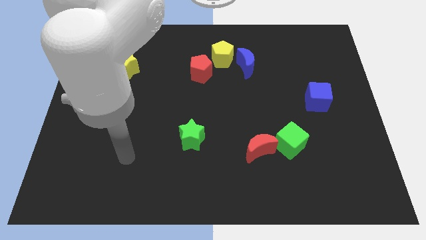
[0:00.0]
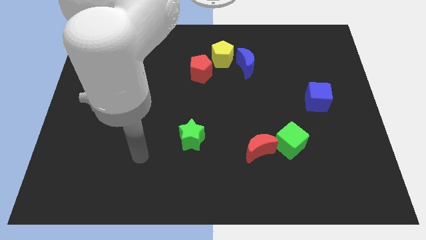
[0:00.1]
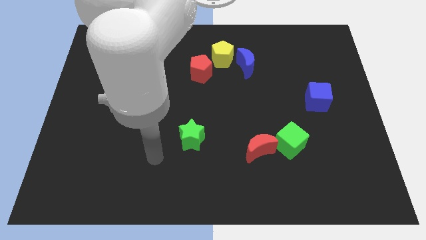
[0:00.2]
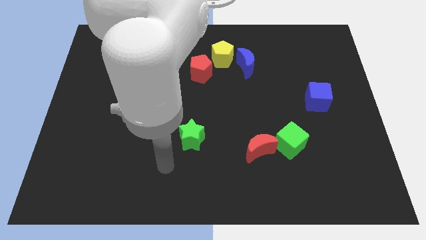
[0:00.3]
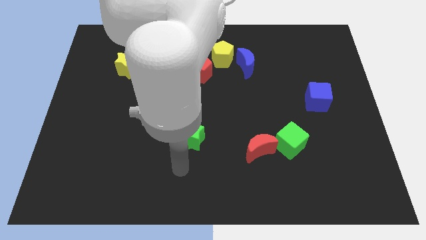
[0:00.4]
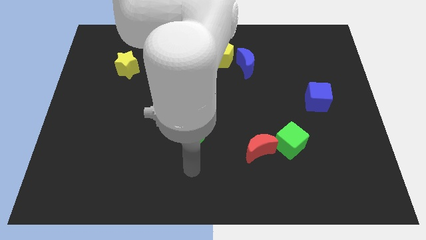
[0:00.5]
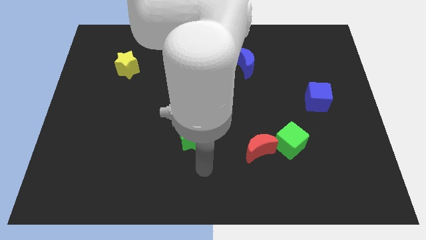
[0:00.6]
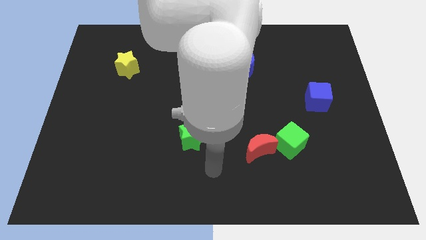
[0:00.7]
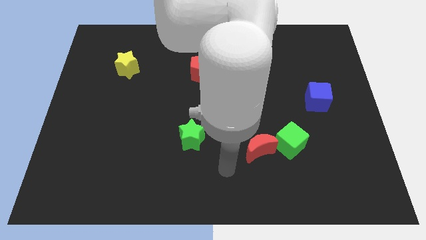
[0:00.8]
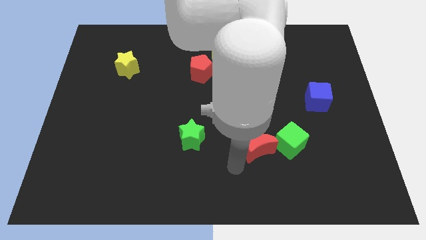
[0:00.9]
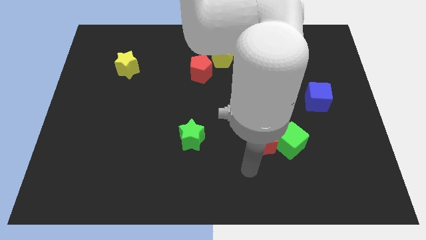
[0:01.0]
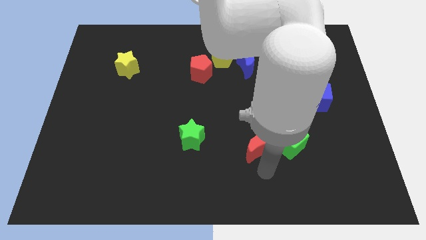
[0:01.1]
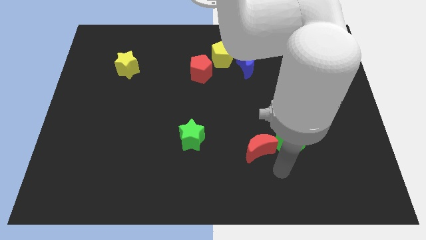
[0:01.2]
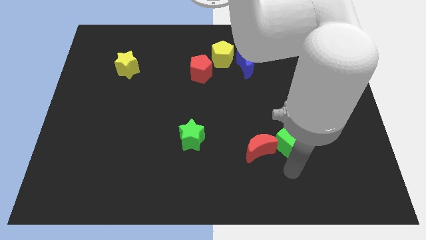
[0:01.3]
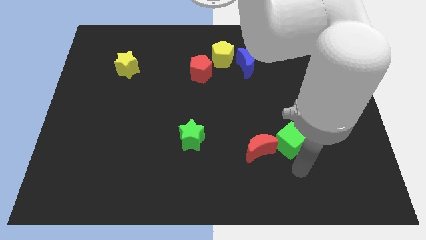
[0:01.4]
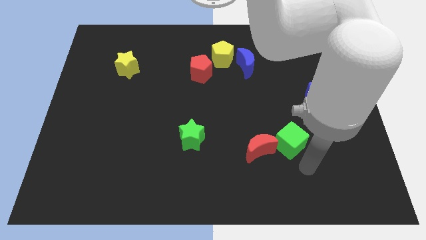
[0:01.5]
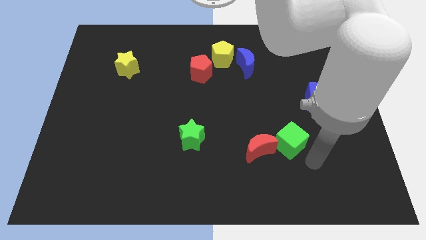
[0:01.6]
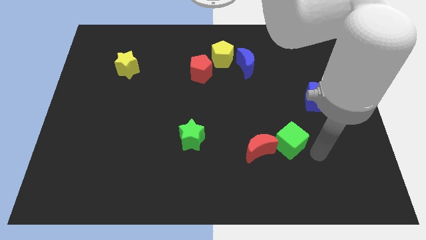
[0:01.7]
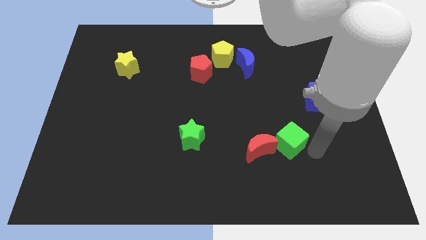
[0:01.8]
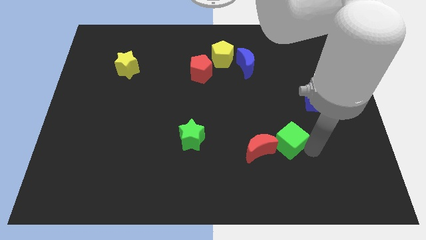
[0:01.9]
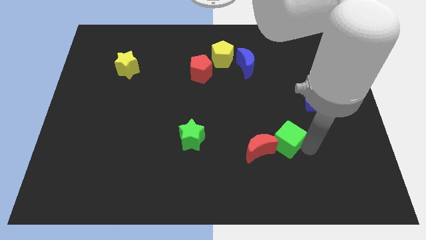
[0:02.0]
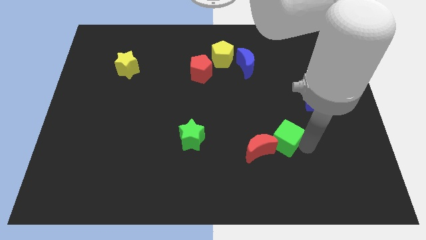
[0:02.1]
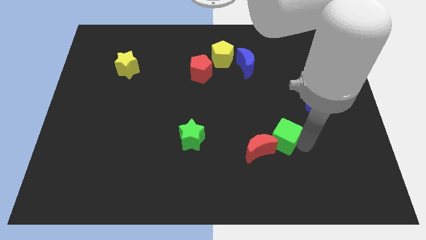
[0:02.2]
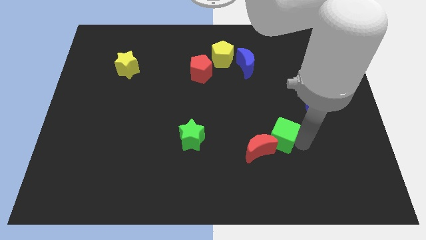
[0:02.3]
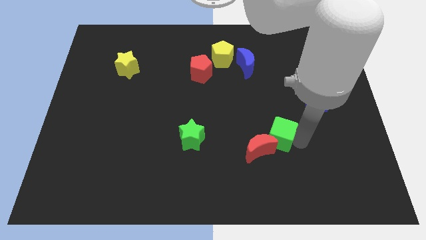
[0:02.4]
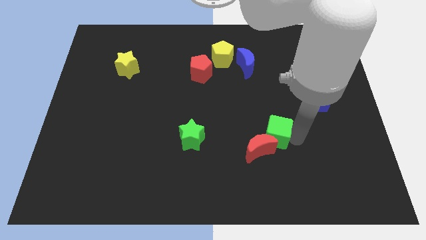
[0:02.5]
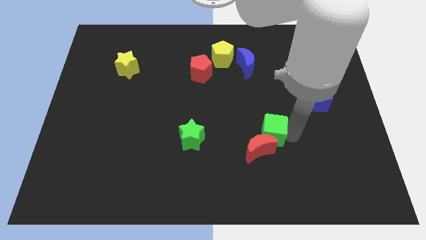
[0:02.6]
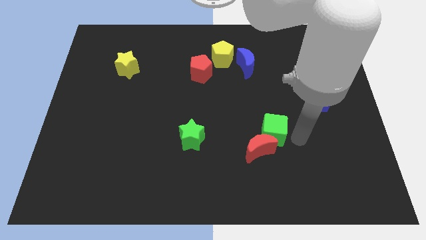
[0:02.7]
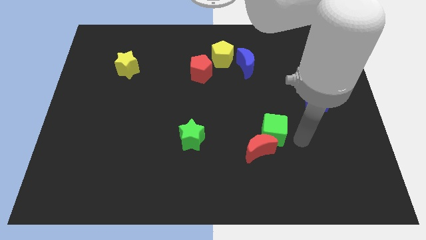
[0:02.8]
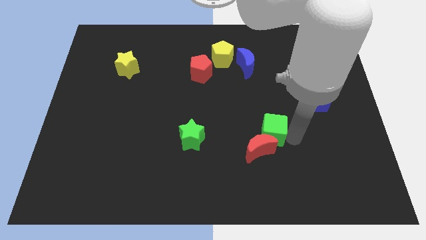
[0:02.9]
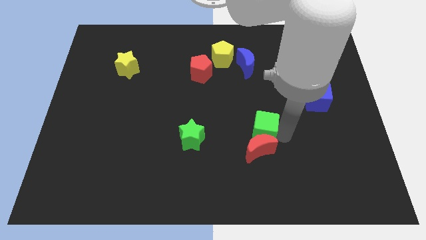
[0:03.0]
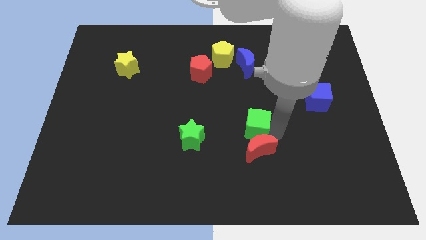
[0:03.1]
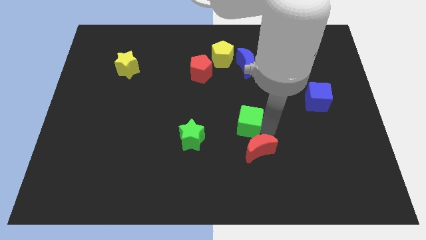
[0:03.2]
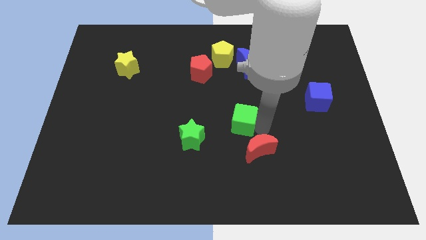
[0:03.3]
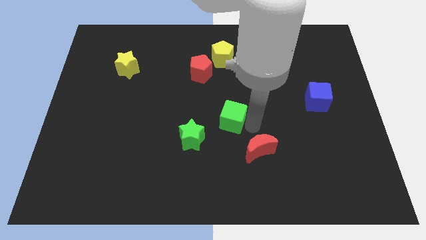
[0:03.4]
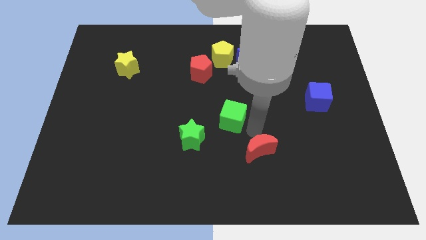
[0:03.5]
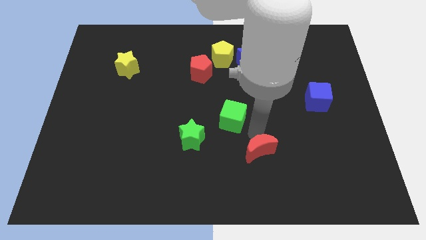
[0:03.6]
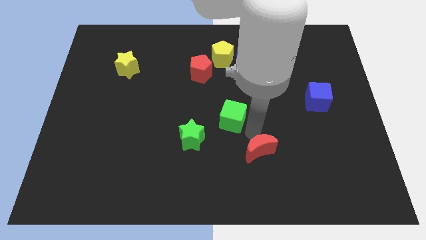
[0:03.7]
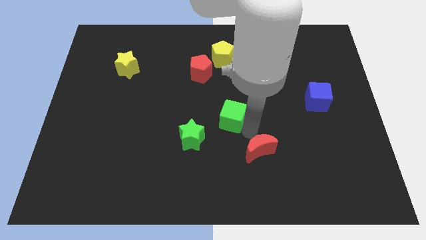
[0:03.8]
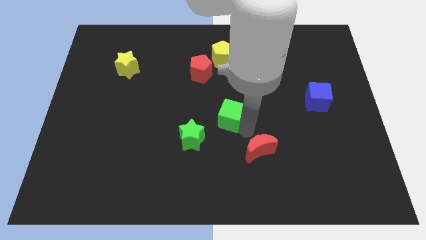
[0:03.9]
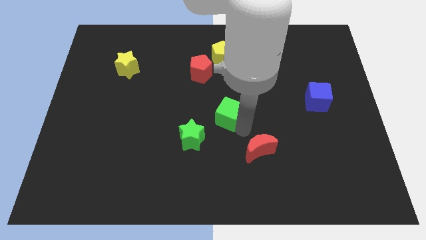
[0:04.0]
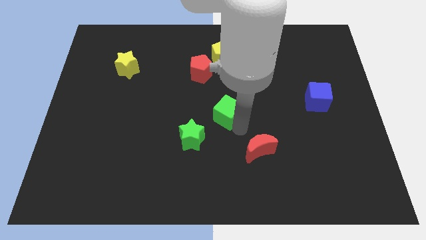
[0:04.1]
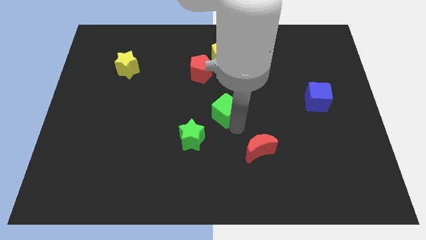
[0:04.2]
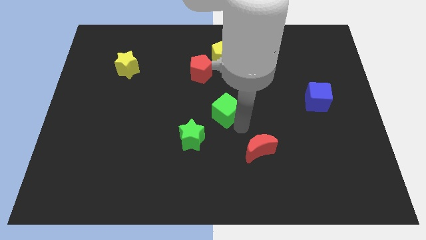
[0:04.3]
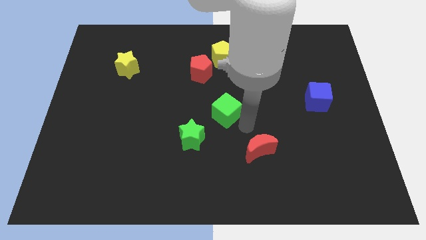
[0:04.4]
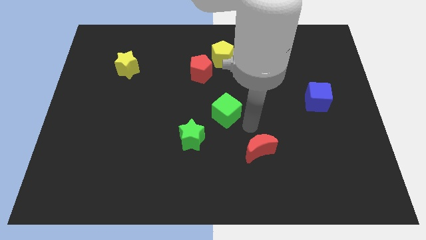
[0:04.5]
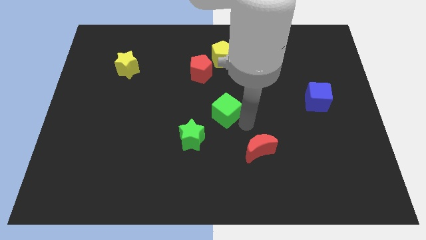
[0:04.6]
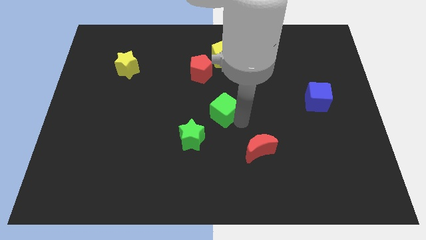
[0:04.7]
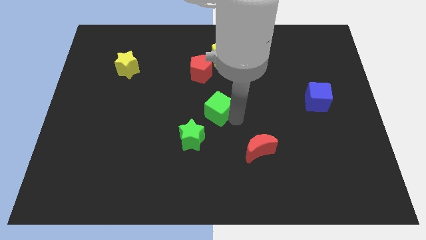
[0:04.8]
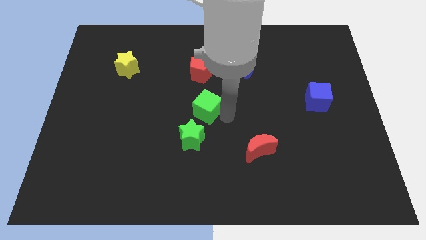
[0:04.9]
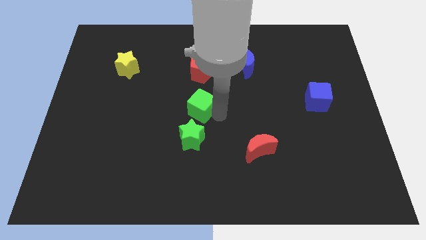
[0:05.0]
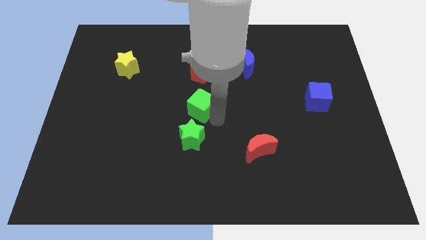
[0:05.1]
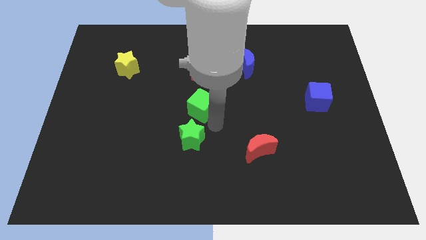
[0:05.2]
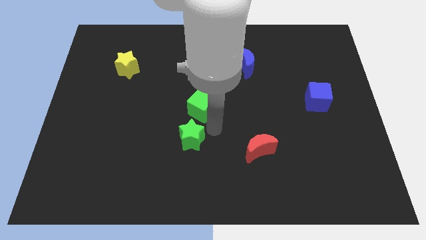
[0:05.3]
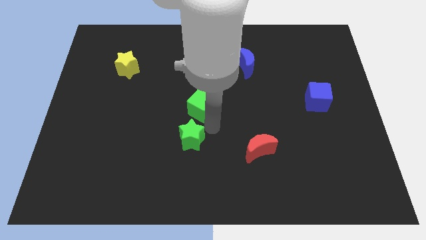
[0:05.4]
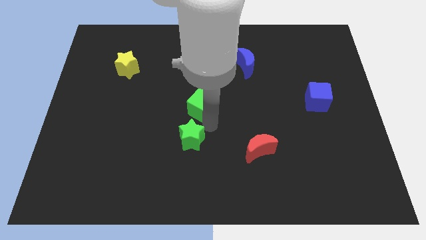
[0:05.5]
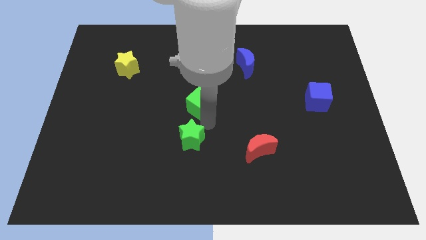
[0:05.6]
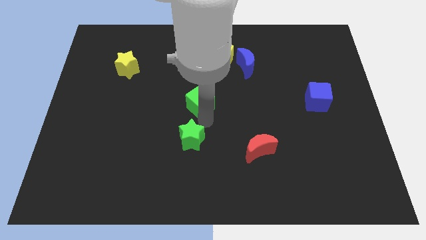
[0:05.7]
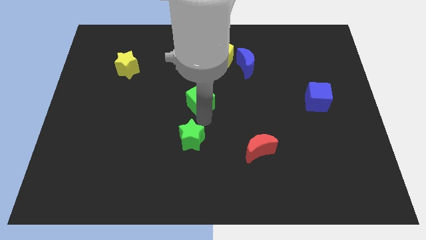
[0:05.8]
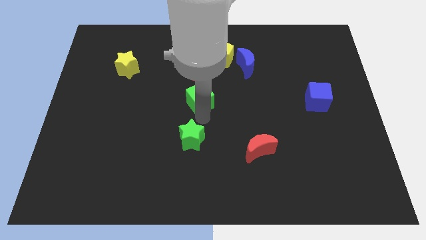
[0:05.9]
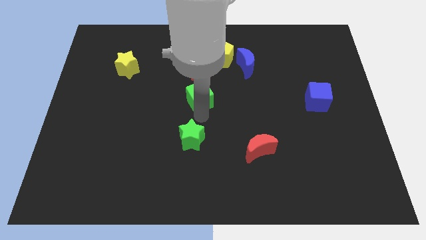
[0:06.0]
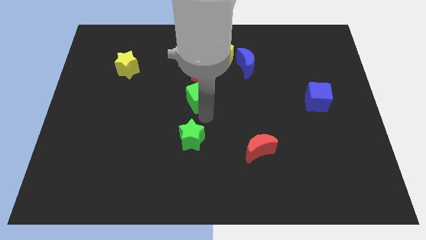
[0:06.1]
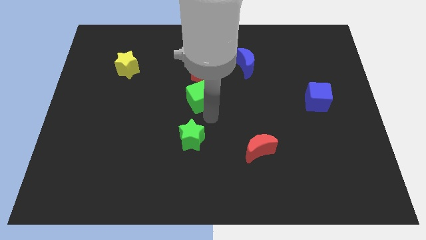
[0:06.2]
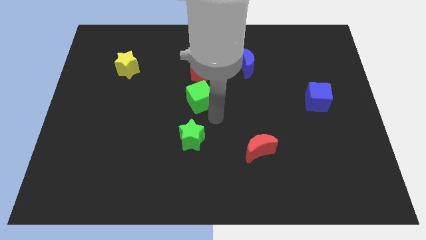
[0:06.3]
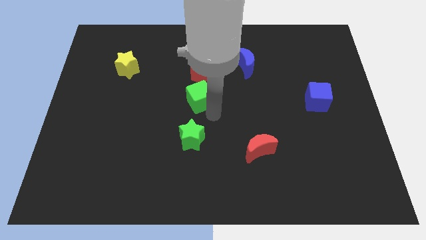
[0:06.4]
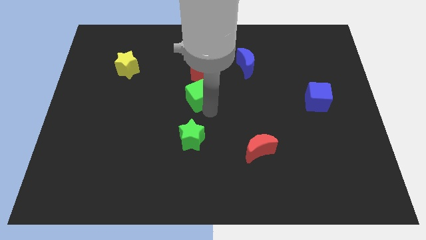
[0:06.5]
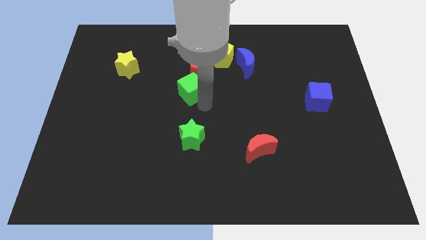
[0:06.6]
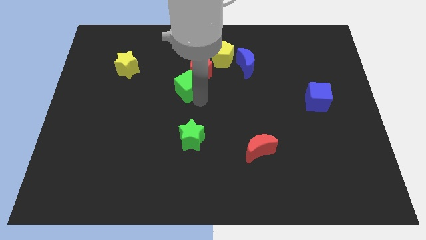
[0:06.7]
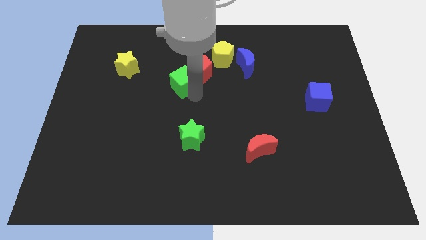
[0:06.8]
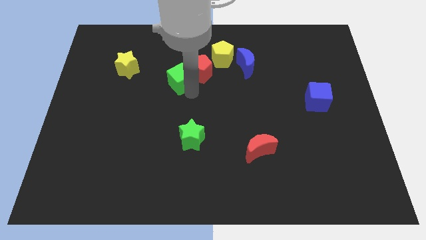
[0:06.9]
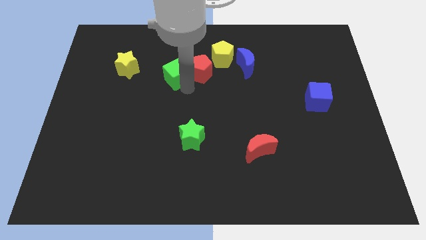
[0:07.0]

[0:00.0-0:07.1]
move the green cube right of the yellow star
